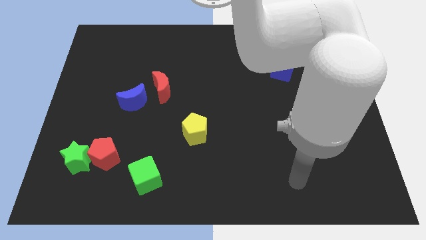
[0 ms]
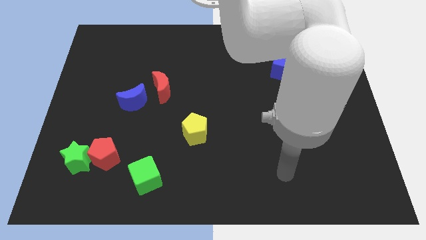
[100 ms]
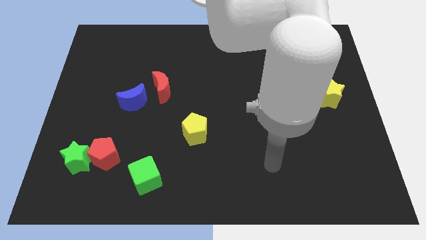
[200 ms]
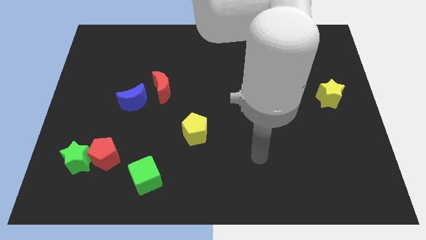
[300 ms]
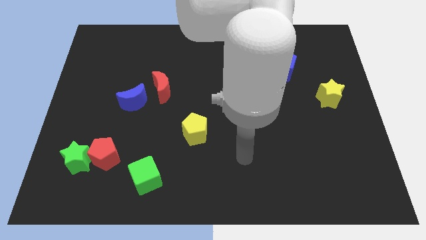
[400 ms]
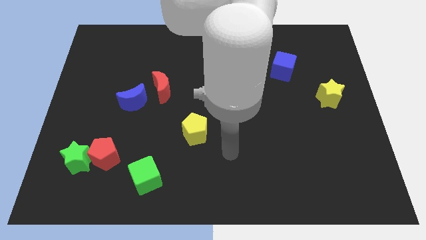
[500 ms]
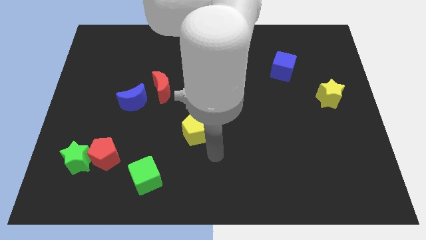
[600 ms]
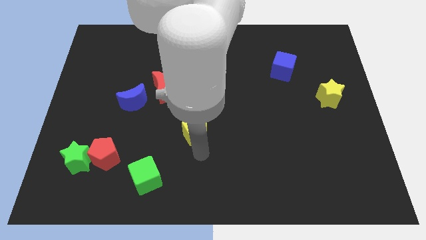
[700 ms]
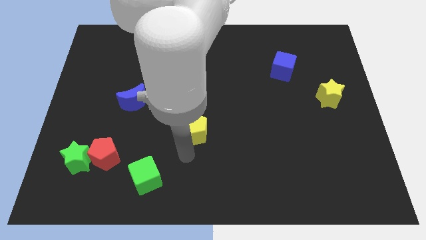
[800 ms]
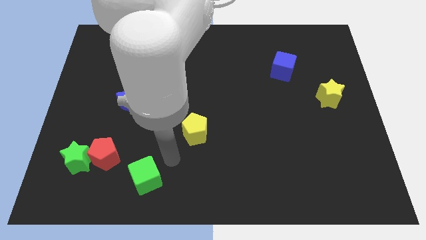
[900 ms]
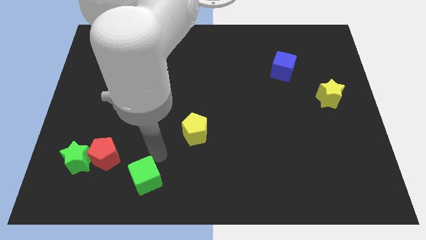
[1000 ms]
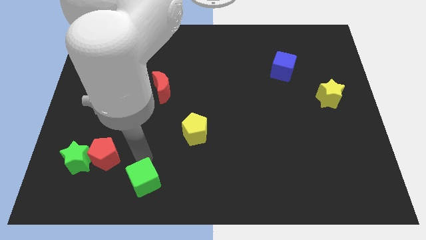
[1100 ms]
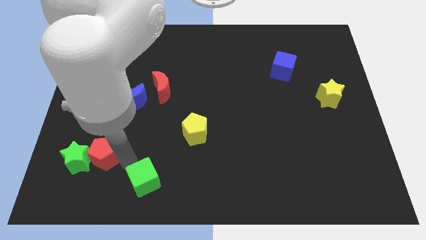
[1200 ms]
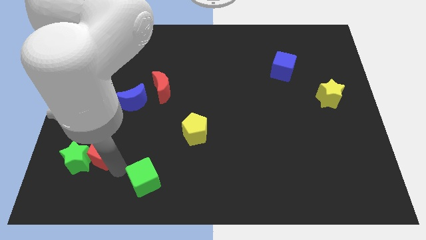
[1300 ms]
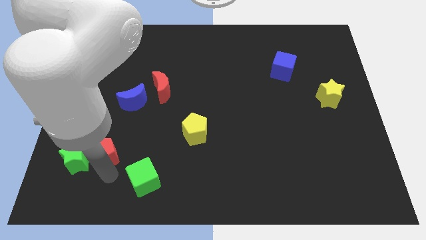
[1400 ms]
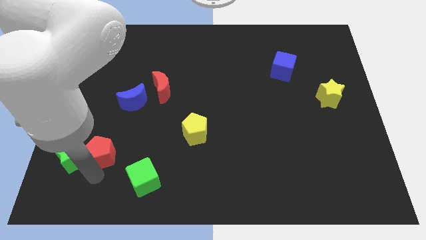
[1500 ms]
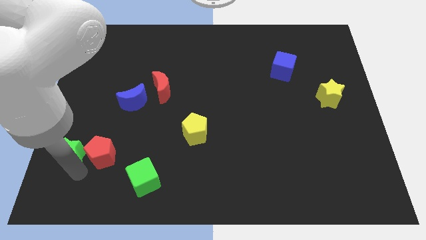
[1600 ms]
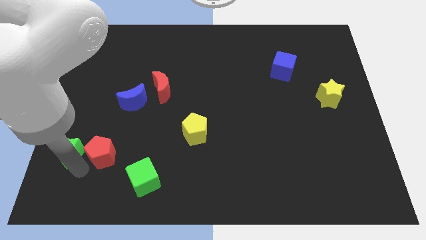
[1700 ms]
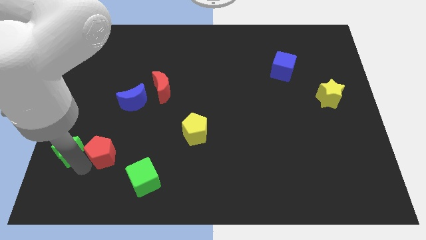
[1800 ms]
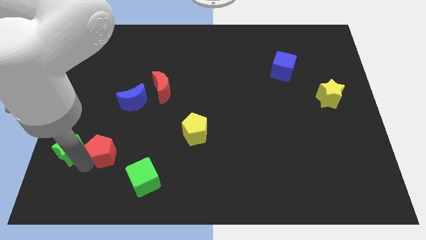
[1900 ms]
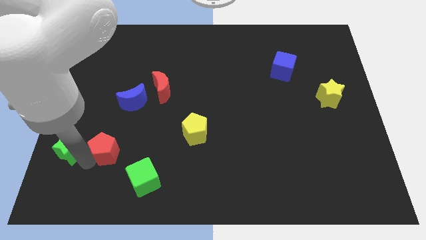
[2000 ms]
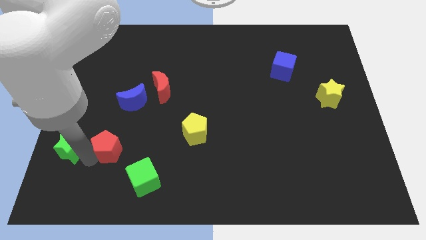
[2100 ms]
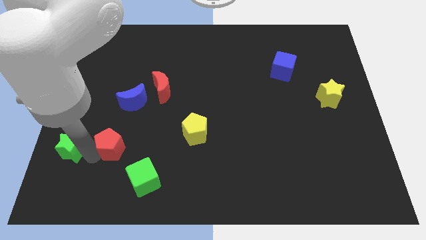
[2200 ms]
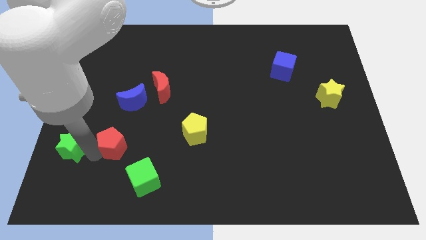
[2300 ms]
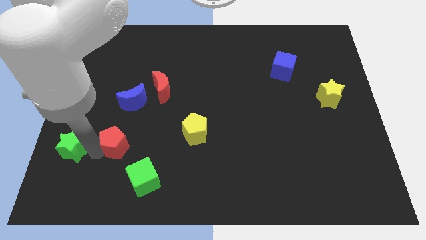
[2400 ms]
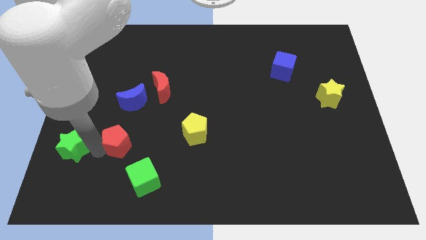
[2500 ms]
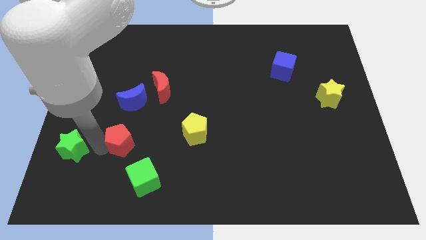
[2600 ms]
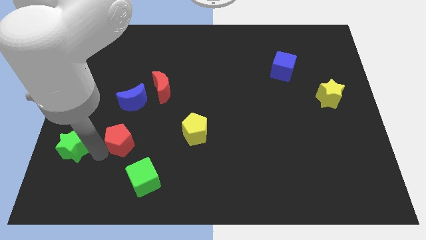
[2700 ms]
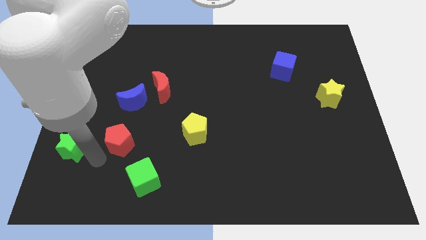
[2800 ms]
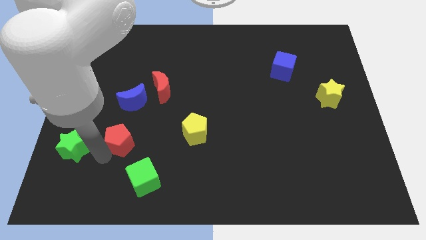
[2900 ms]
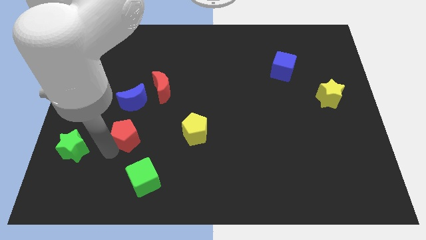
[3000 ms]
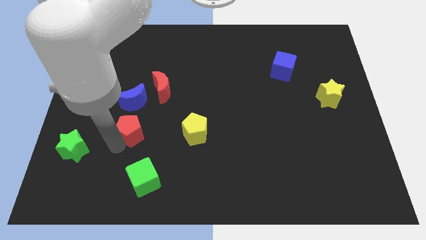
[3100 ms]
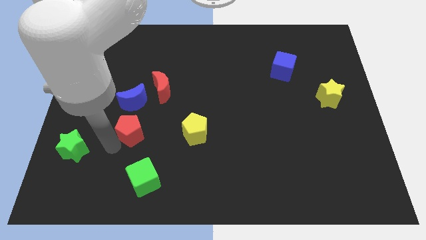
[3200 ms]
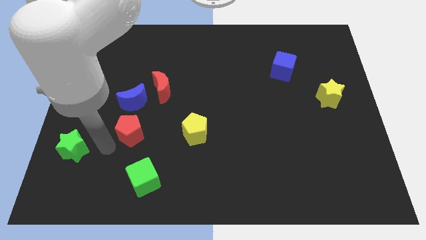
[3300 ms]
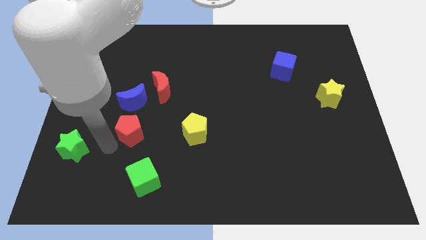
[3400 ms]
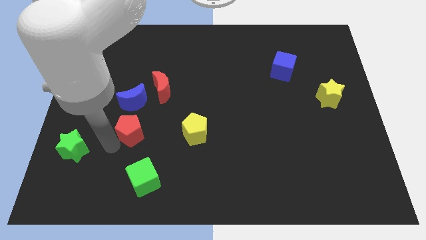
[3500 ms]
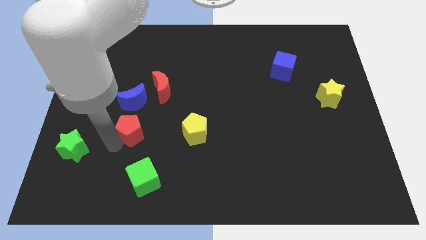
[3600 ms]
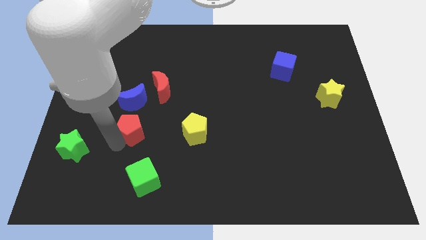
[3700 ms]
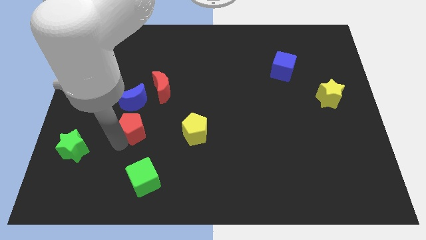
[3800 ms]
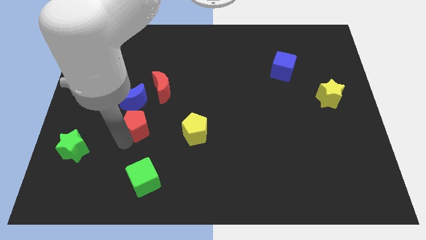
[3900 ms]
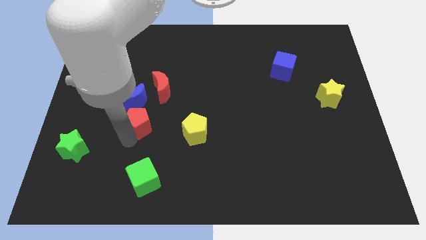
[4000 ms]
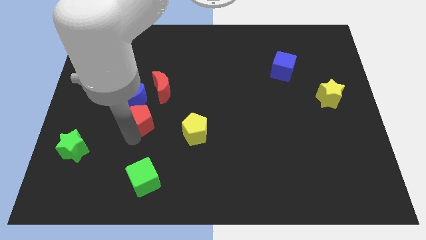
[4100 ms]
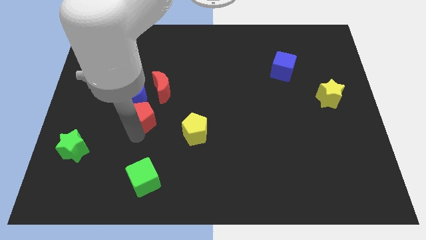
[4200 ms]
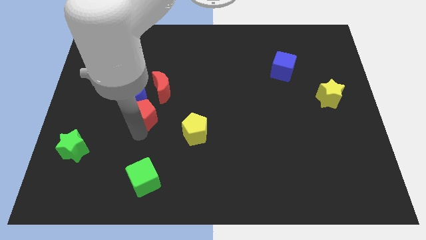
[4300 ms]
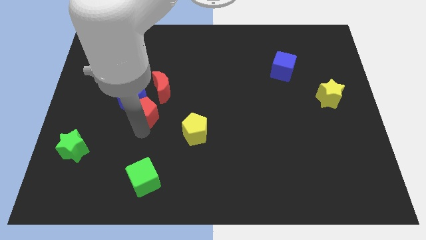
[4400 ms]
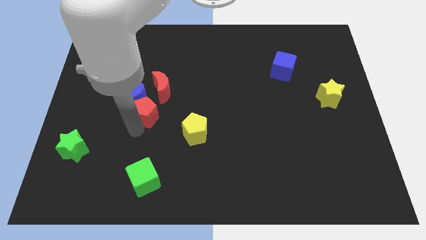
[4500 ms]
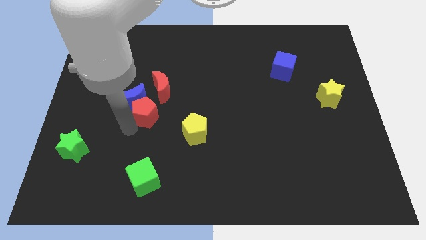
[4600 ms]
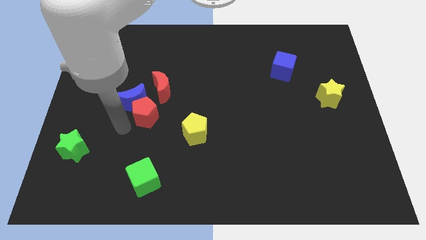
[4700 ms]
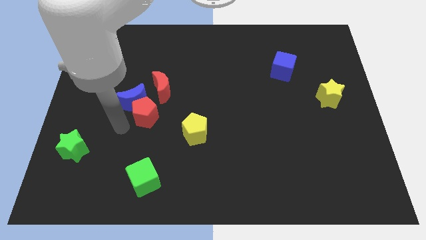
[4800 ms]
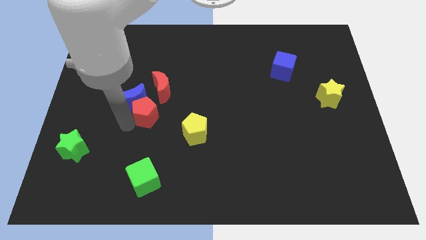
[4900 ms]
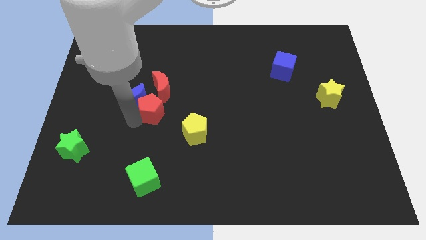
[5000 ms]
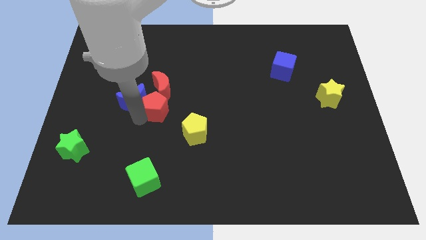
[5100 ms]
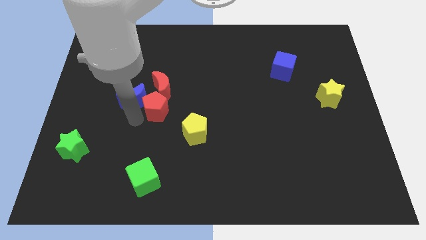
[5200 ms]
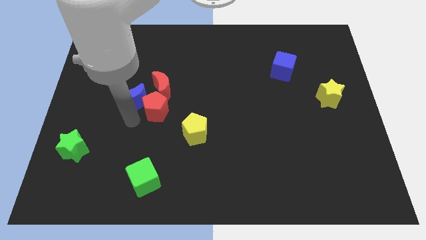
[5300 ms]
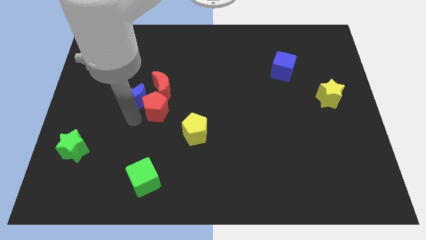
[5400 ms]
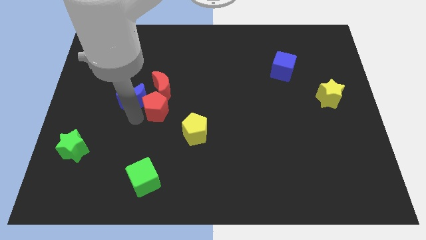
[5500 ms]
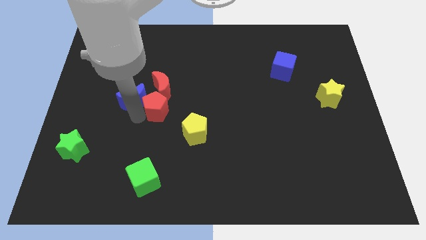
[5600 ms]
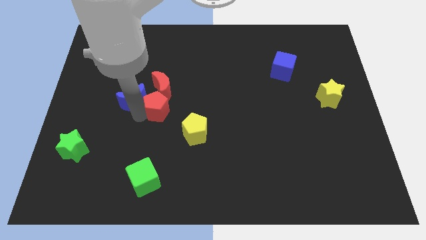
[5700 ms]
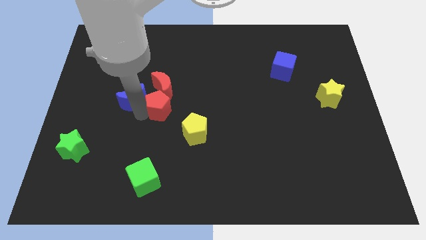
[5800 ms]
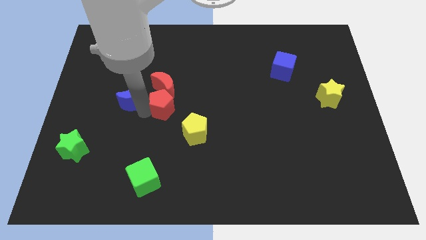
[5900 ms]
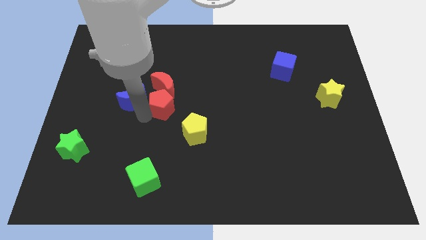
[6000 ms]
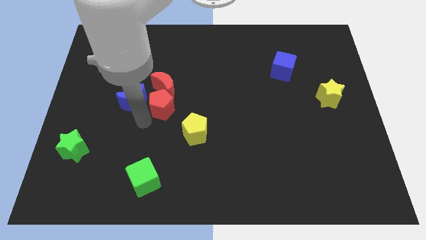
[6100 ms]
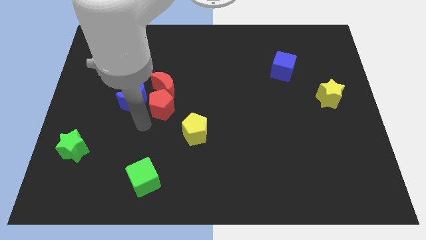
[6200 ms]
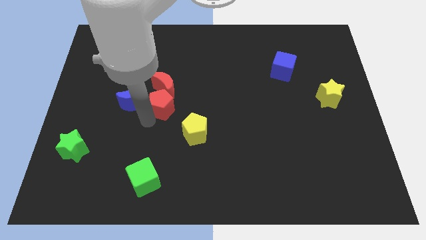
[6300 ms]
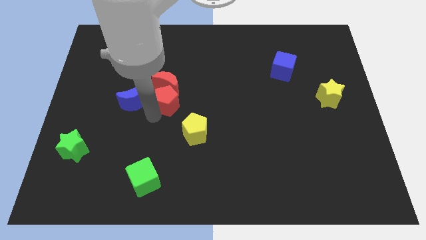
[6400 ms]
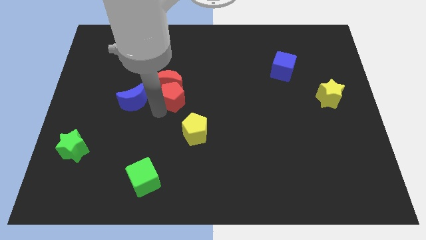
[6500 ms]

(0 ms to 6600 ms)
move the red pentagon up and right diagonally

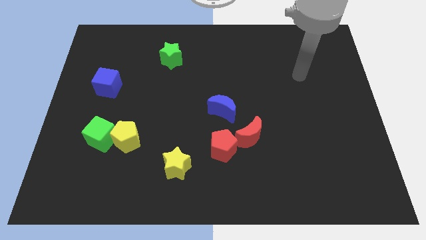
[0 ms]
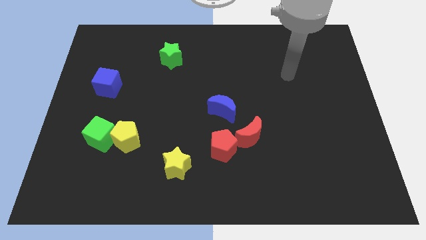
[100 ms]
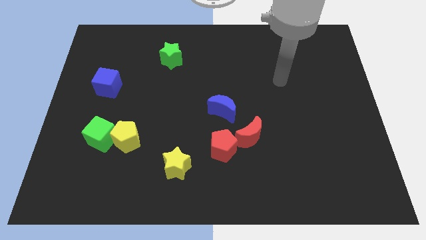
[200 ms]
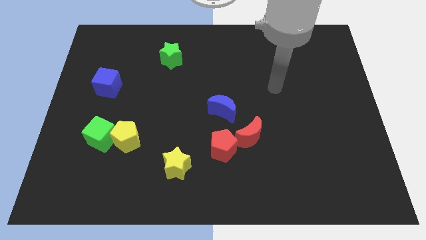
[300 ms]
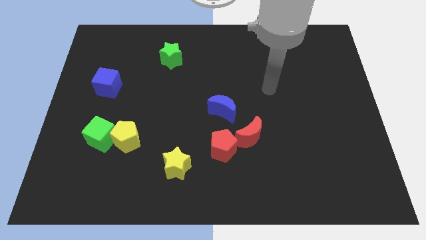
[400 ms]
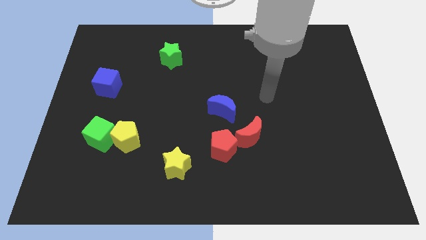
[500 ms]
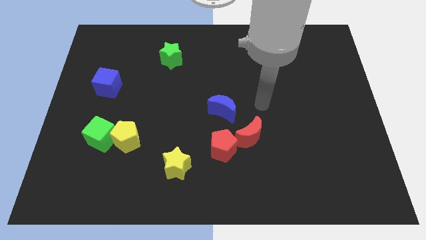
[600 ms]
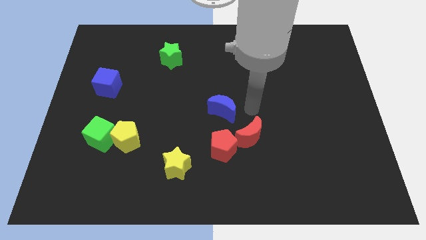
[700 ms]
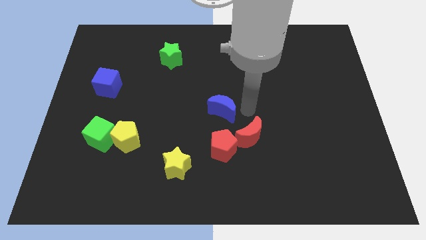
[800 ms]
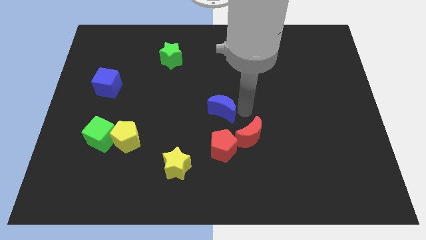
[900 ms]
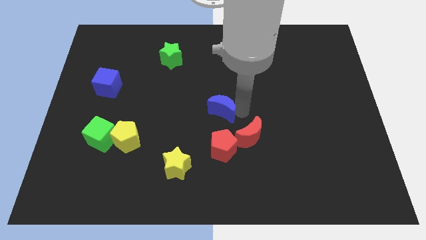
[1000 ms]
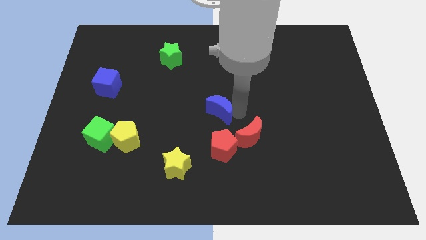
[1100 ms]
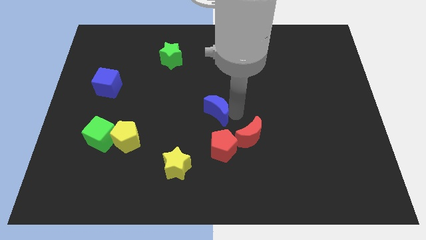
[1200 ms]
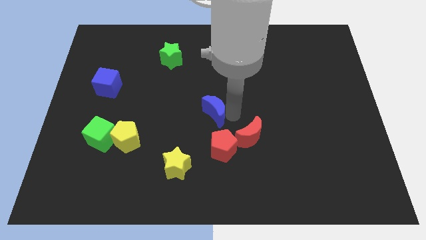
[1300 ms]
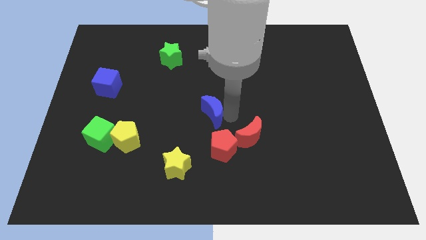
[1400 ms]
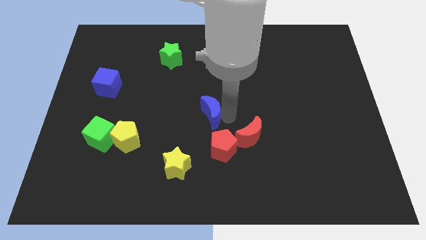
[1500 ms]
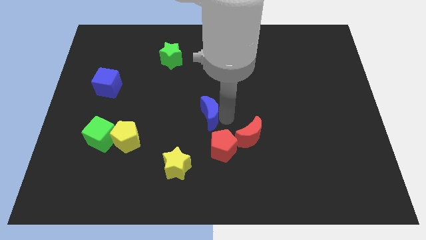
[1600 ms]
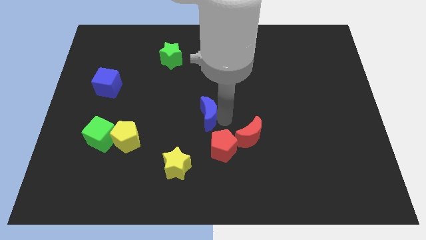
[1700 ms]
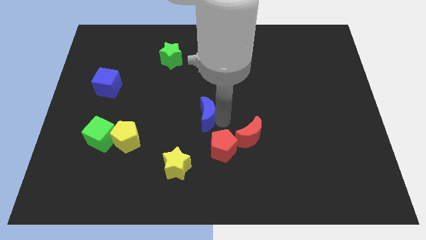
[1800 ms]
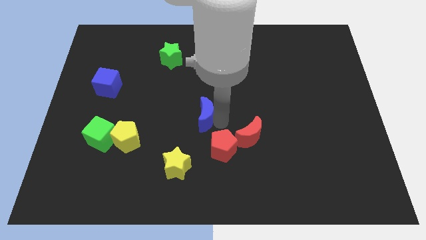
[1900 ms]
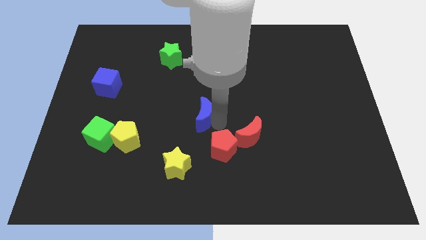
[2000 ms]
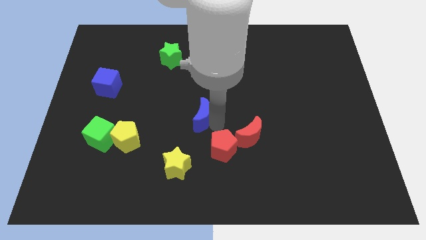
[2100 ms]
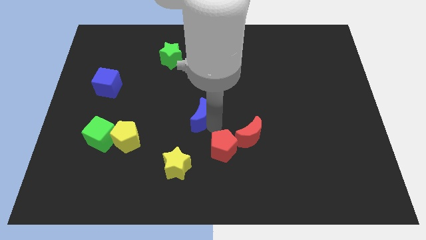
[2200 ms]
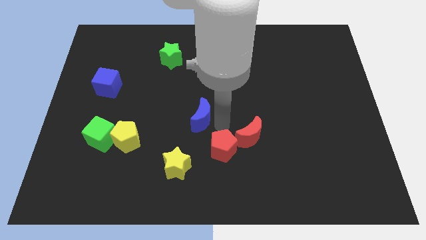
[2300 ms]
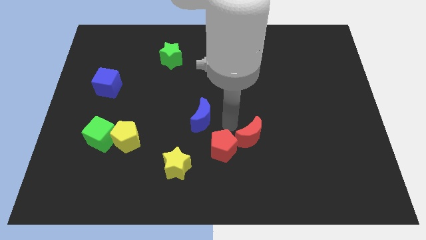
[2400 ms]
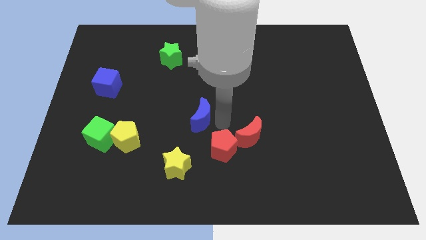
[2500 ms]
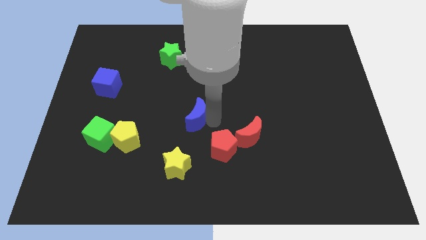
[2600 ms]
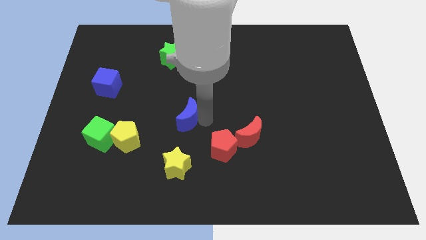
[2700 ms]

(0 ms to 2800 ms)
slightly move the blue moon left
